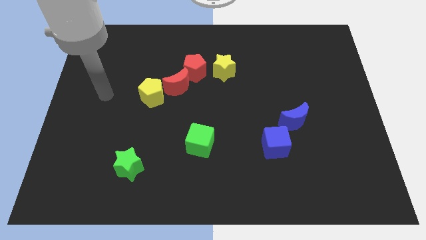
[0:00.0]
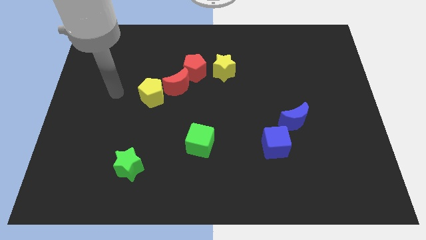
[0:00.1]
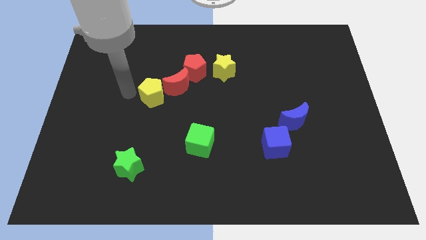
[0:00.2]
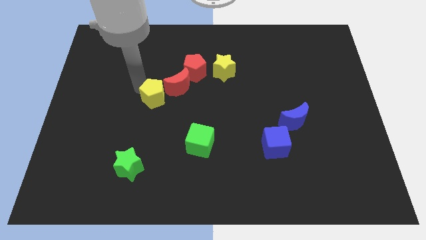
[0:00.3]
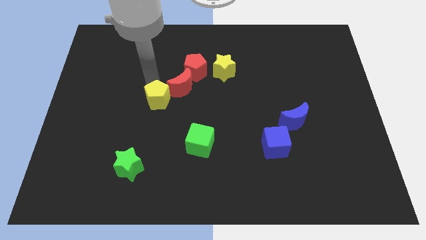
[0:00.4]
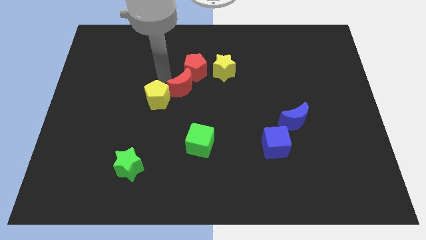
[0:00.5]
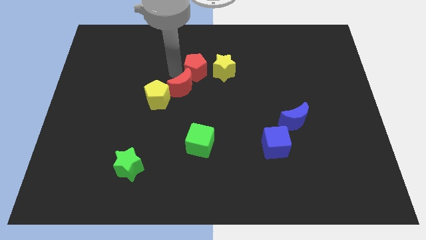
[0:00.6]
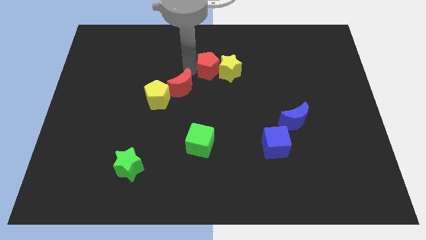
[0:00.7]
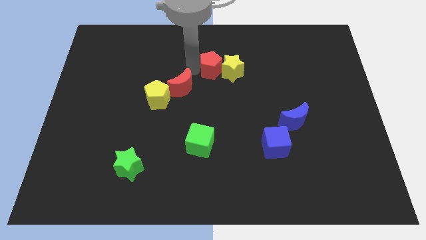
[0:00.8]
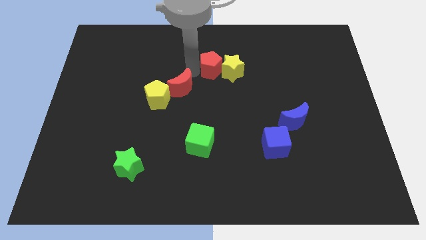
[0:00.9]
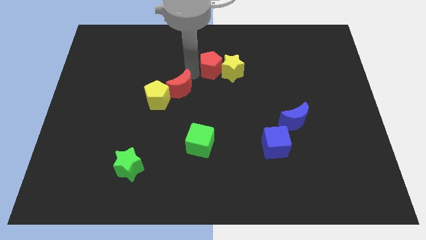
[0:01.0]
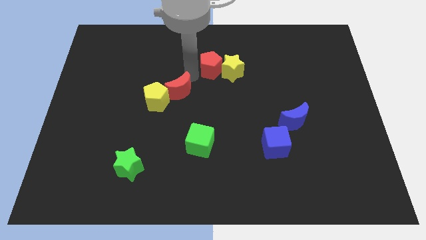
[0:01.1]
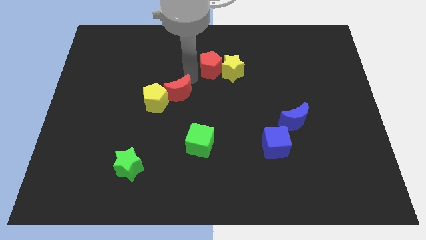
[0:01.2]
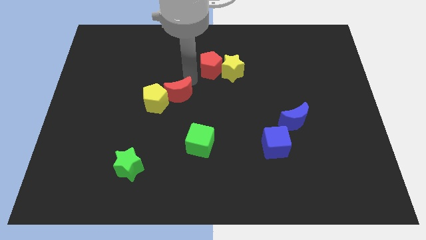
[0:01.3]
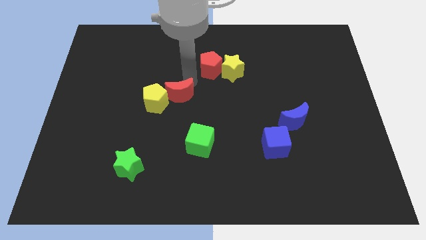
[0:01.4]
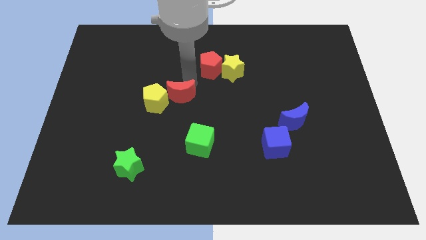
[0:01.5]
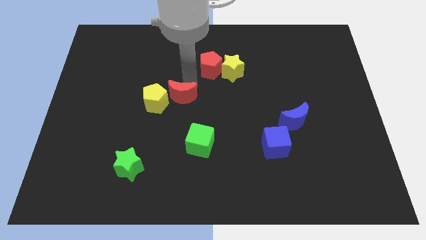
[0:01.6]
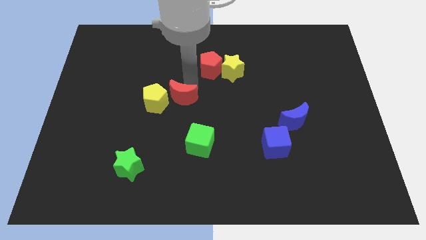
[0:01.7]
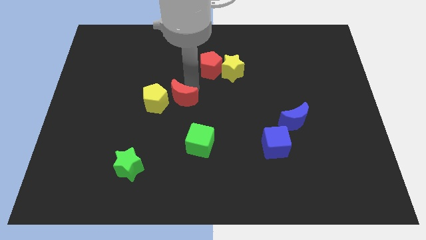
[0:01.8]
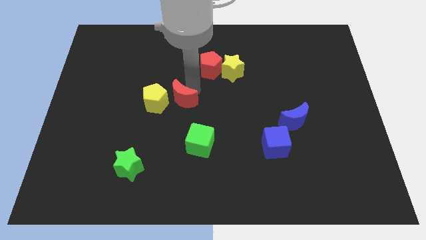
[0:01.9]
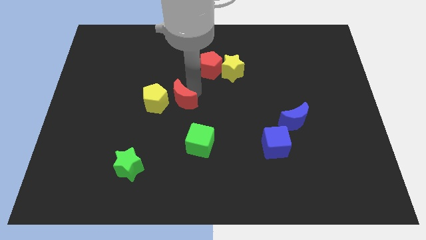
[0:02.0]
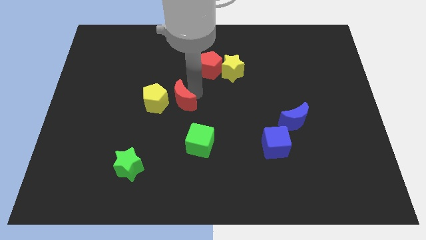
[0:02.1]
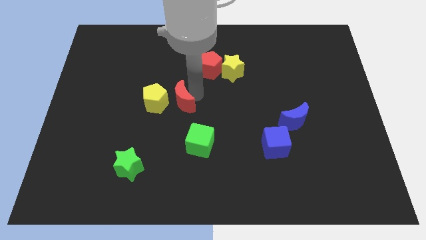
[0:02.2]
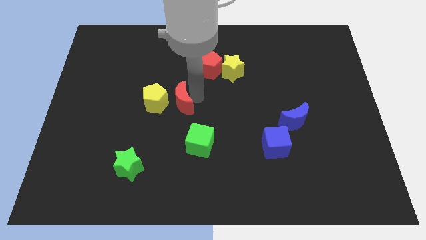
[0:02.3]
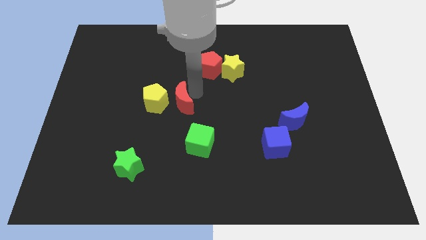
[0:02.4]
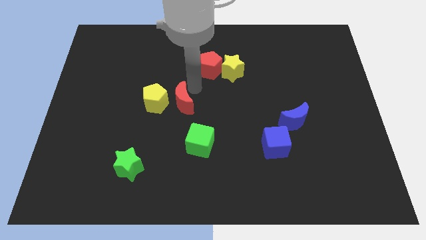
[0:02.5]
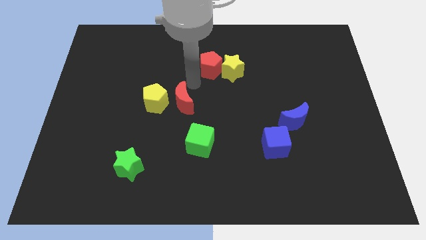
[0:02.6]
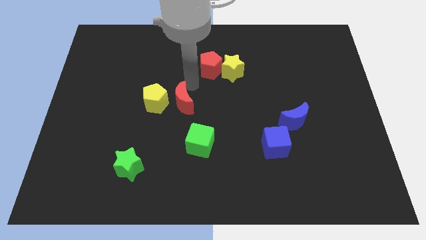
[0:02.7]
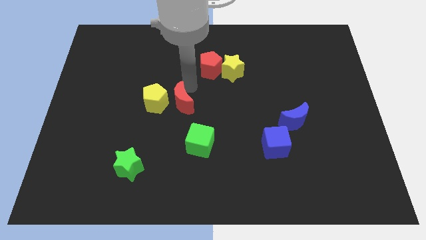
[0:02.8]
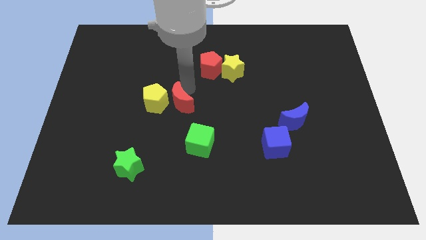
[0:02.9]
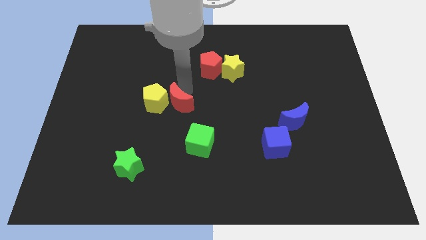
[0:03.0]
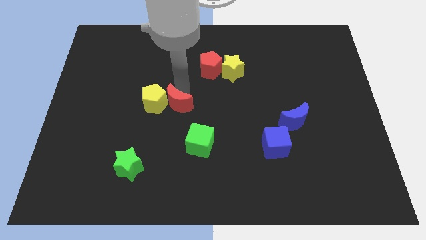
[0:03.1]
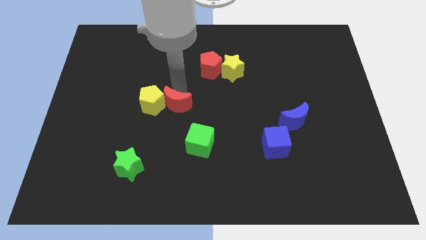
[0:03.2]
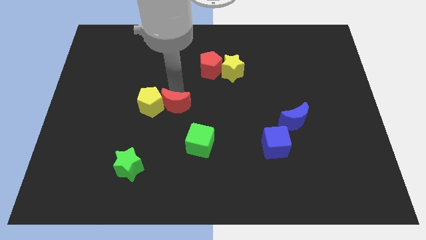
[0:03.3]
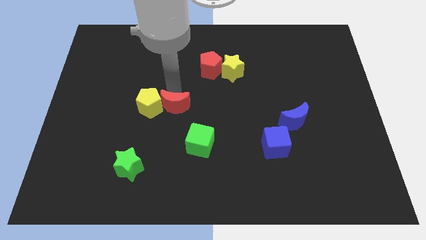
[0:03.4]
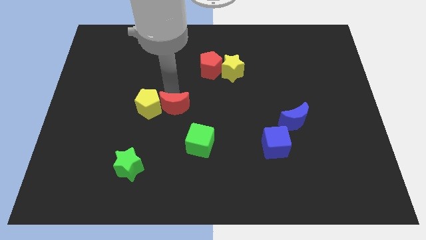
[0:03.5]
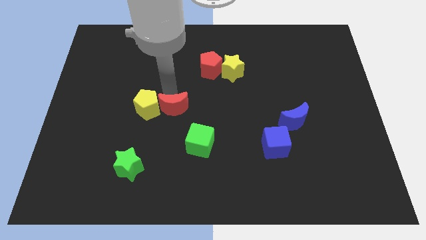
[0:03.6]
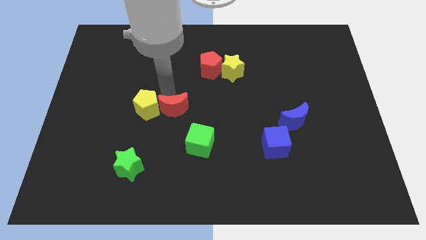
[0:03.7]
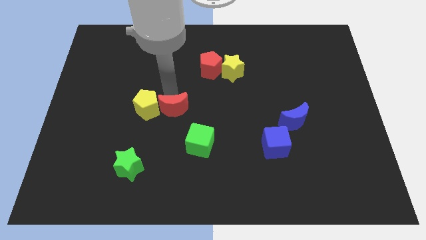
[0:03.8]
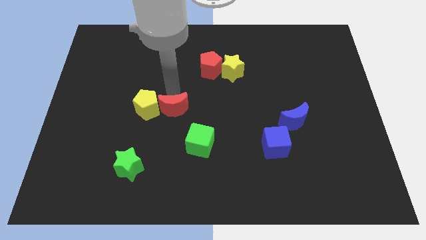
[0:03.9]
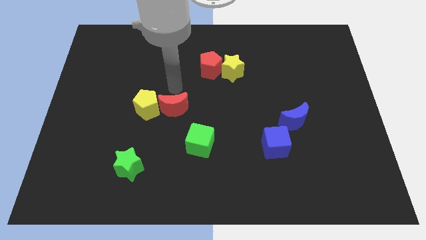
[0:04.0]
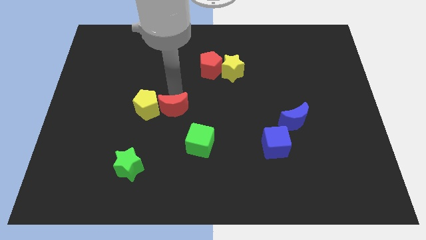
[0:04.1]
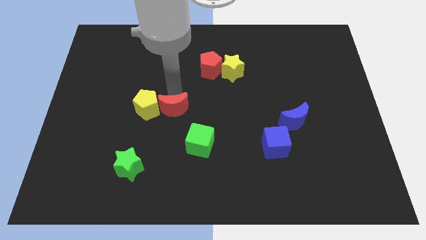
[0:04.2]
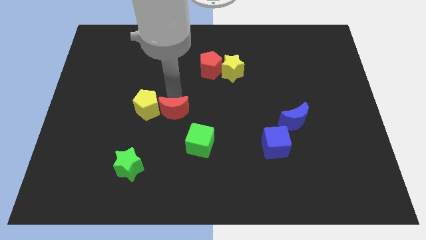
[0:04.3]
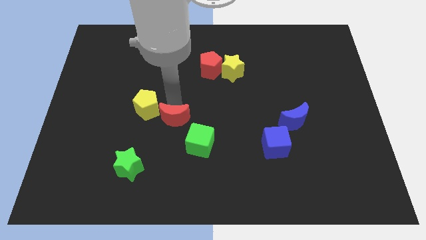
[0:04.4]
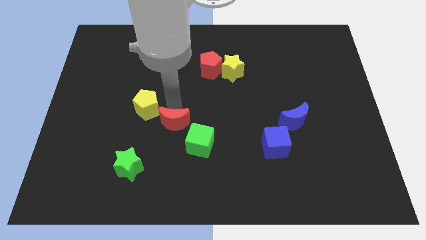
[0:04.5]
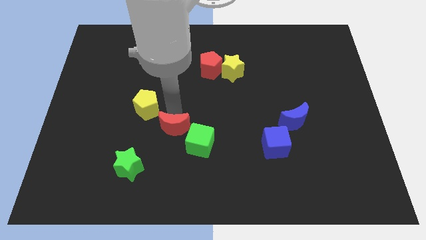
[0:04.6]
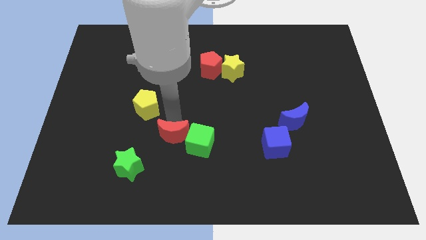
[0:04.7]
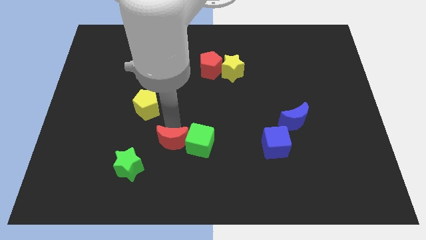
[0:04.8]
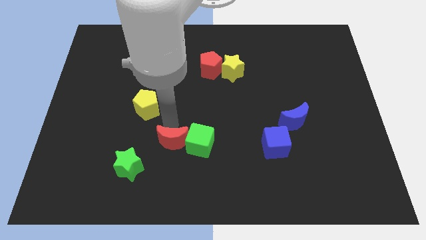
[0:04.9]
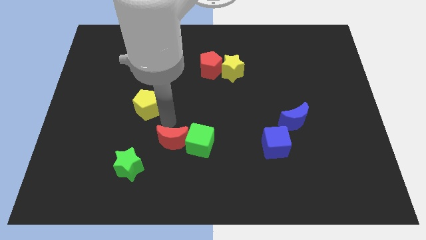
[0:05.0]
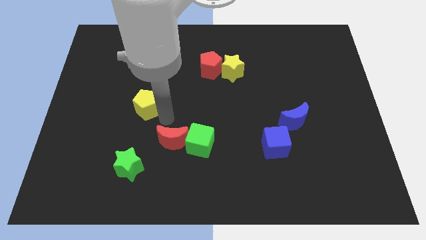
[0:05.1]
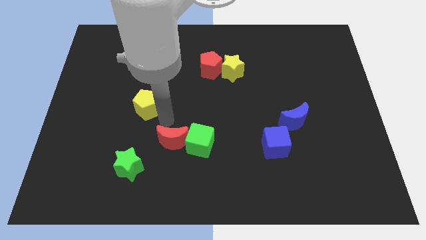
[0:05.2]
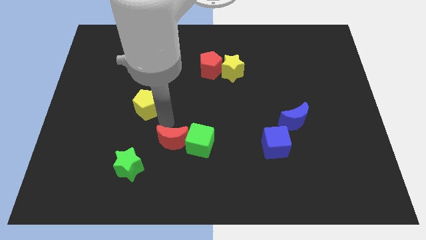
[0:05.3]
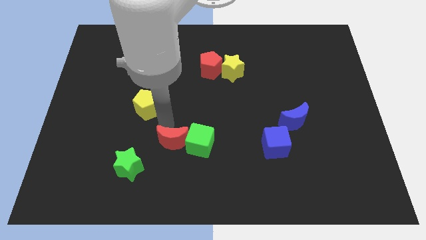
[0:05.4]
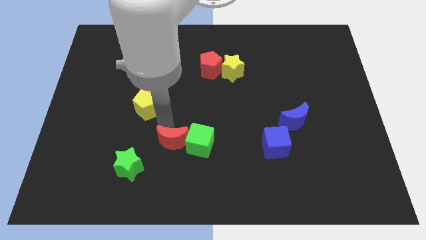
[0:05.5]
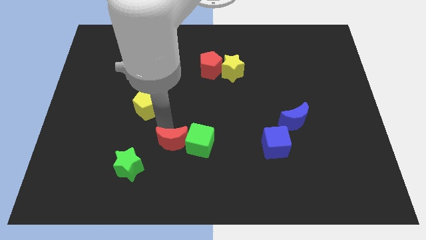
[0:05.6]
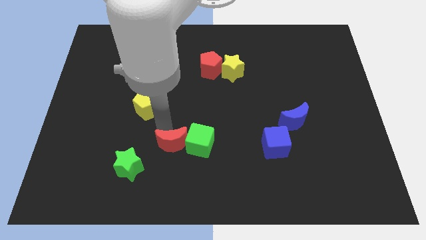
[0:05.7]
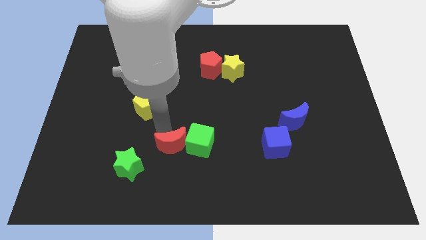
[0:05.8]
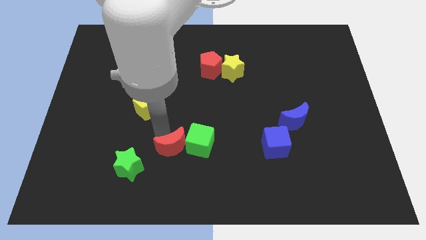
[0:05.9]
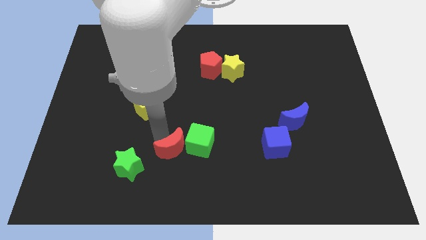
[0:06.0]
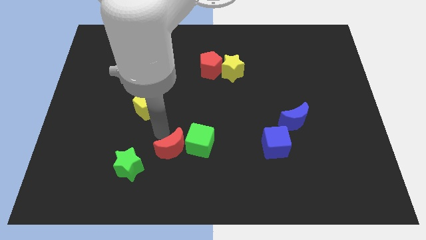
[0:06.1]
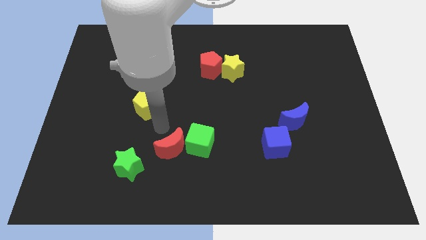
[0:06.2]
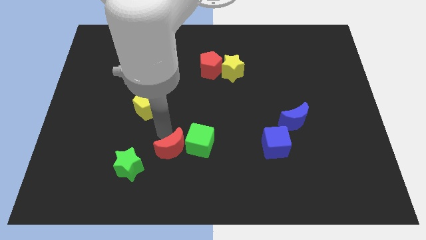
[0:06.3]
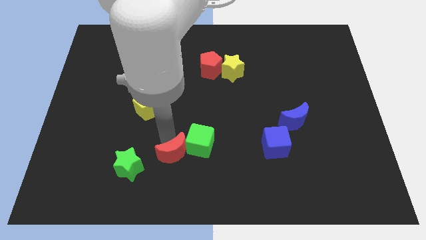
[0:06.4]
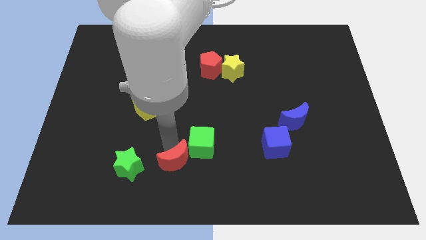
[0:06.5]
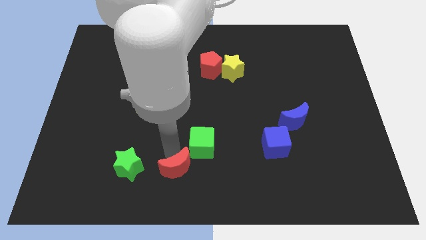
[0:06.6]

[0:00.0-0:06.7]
put the red moon to the bottom side
